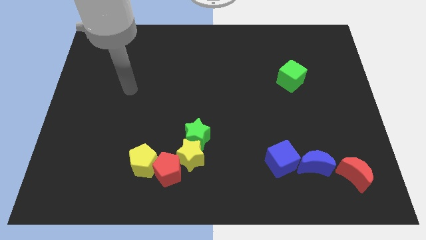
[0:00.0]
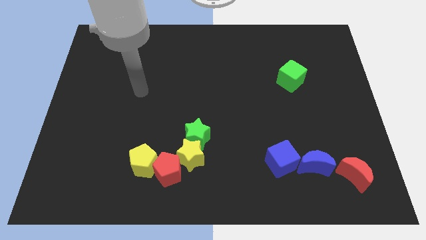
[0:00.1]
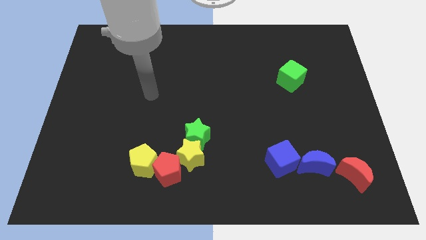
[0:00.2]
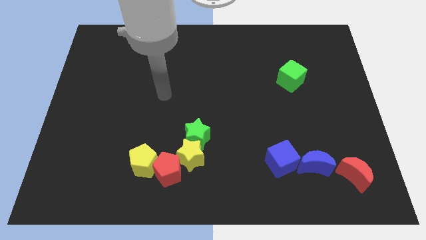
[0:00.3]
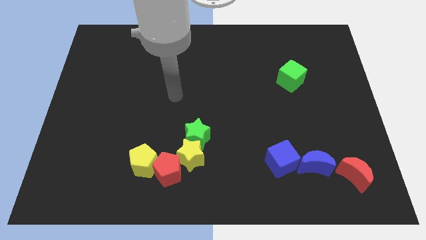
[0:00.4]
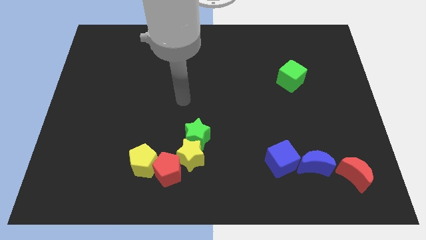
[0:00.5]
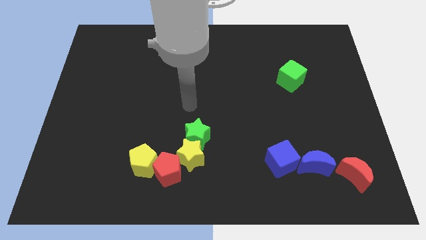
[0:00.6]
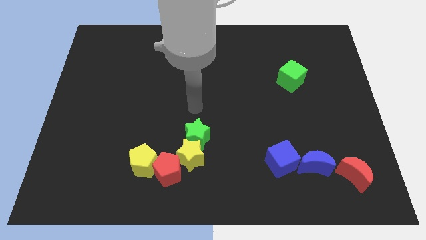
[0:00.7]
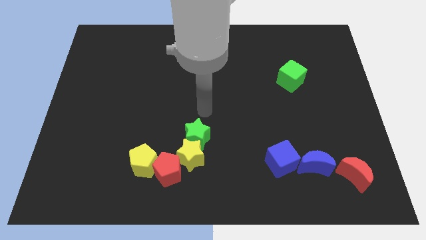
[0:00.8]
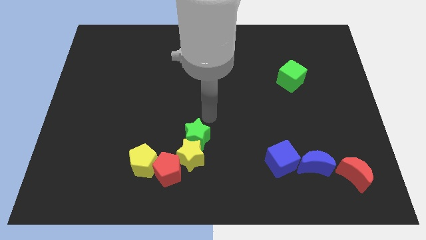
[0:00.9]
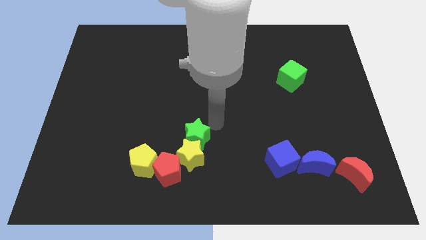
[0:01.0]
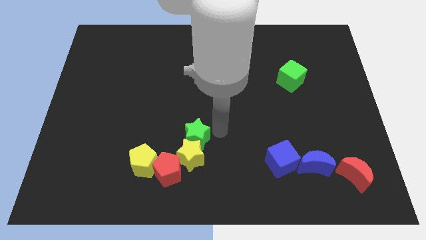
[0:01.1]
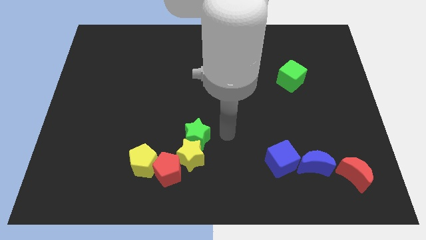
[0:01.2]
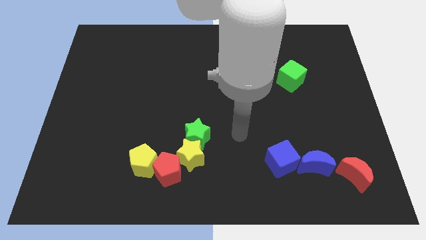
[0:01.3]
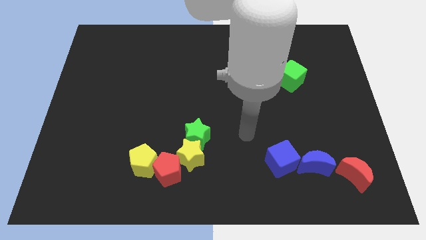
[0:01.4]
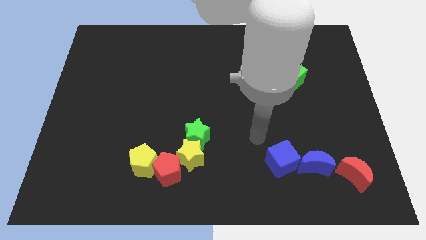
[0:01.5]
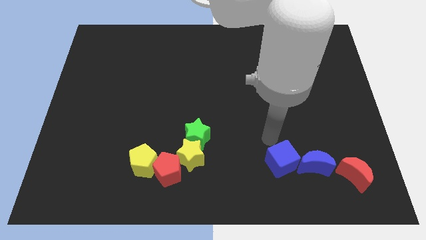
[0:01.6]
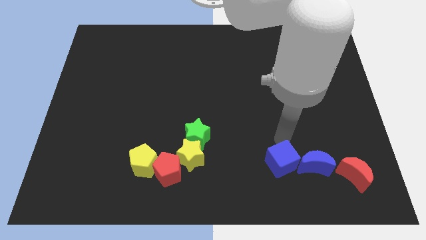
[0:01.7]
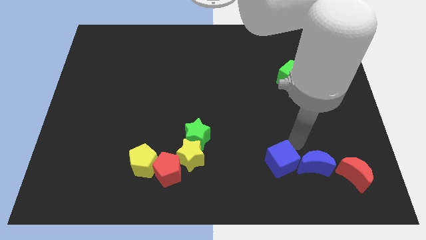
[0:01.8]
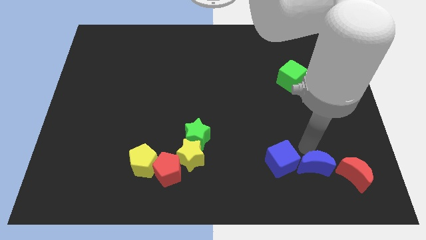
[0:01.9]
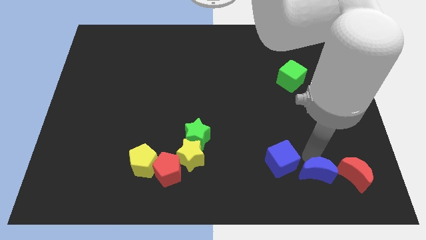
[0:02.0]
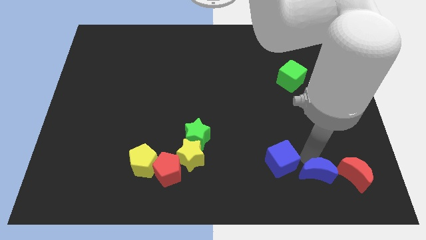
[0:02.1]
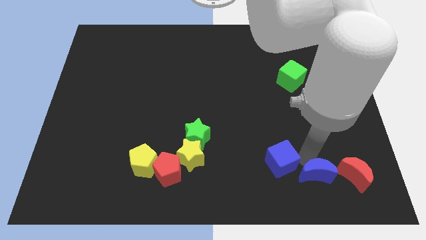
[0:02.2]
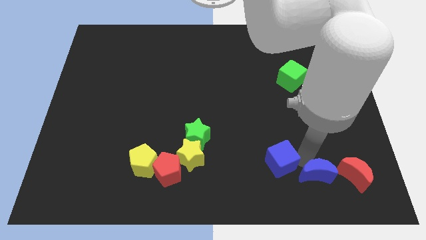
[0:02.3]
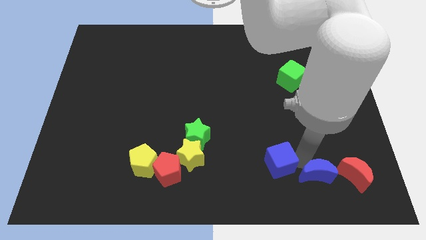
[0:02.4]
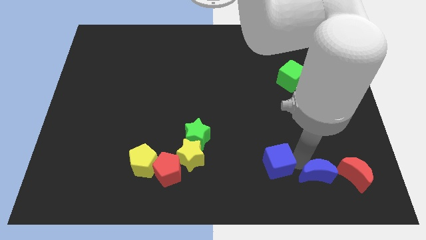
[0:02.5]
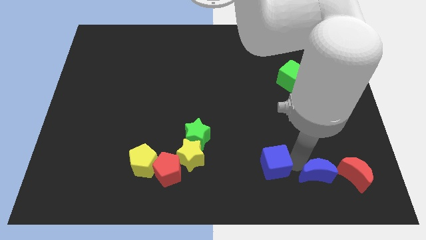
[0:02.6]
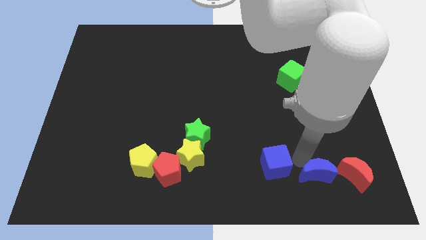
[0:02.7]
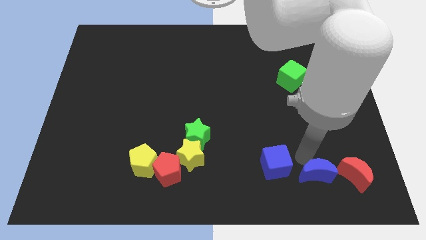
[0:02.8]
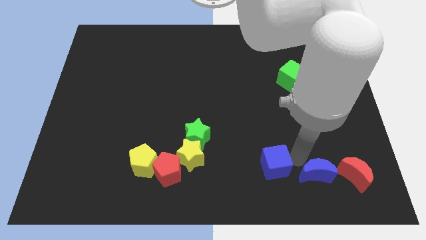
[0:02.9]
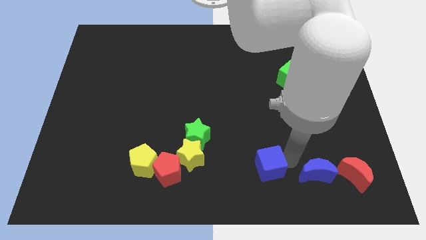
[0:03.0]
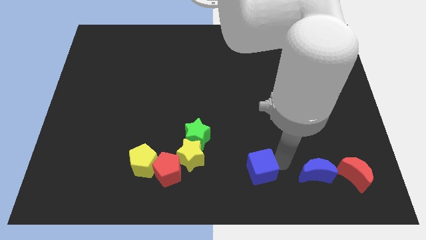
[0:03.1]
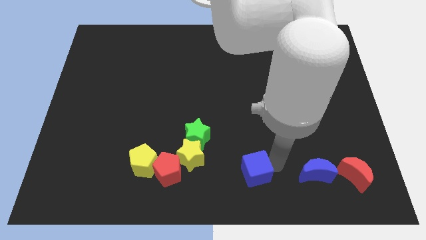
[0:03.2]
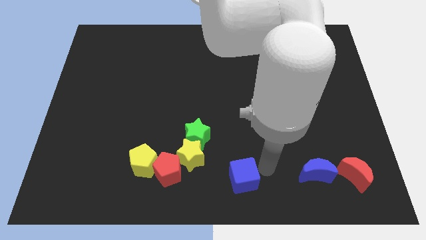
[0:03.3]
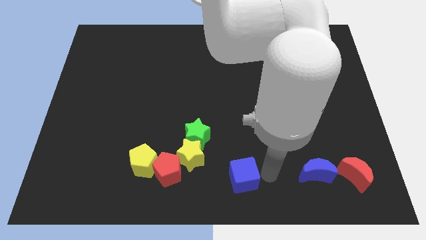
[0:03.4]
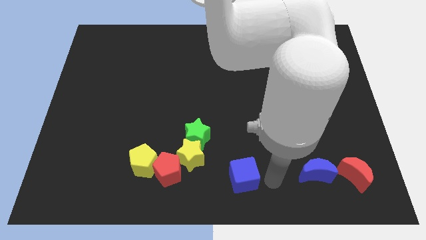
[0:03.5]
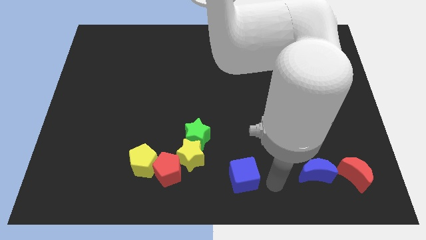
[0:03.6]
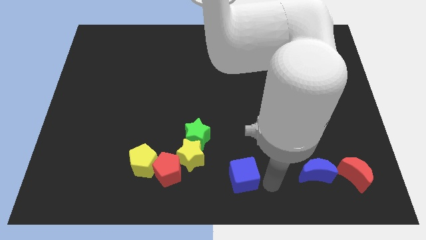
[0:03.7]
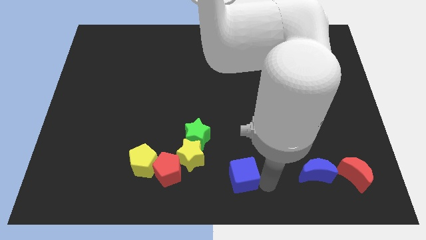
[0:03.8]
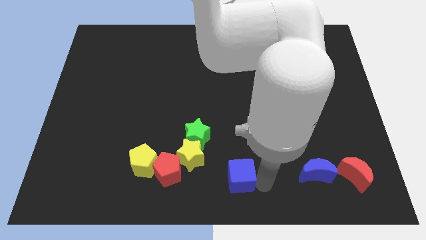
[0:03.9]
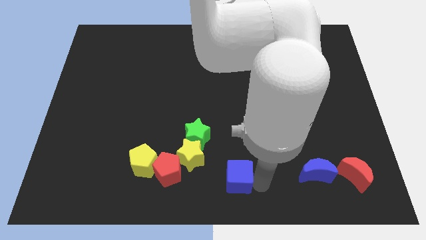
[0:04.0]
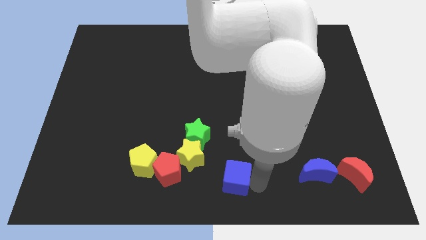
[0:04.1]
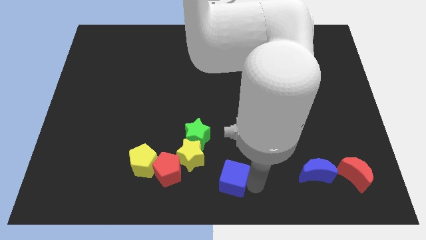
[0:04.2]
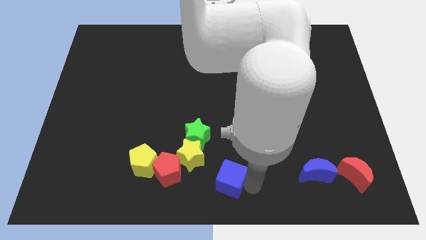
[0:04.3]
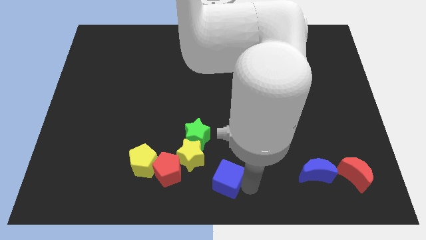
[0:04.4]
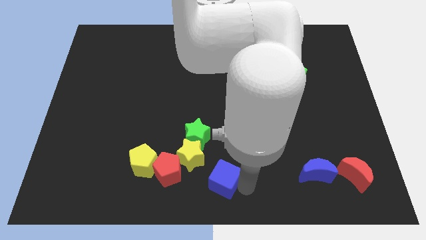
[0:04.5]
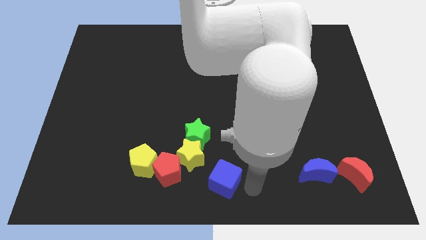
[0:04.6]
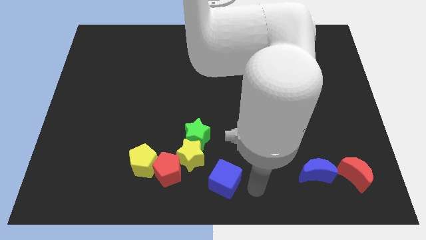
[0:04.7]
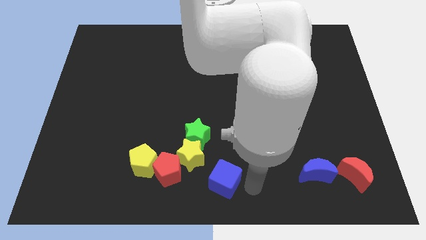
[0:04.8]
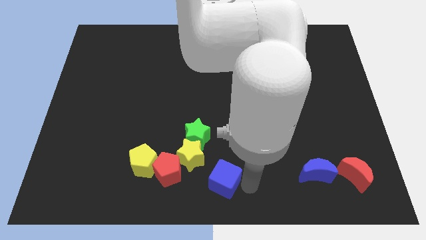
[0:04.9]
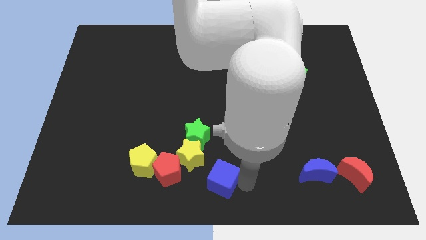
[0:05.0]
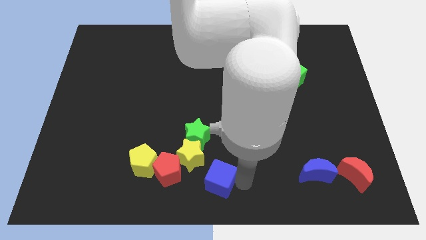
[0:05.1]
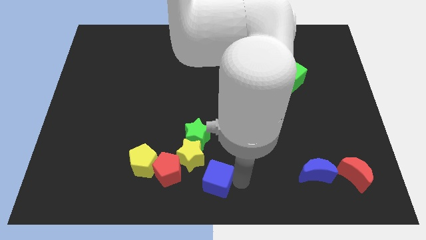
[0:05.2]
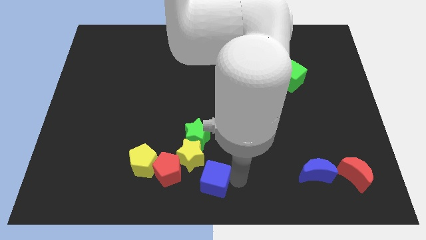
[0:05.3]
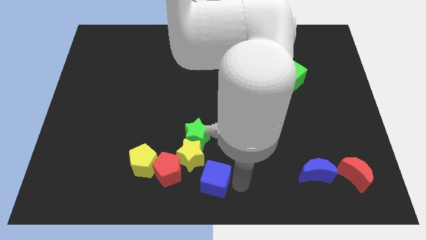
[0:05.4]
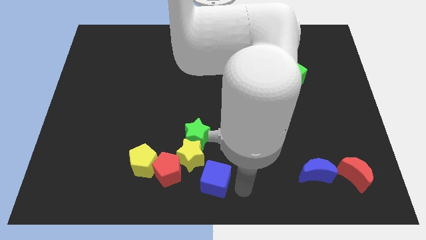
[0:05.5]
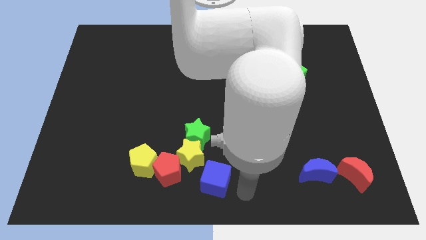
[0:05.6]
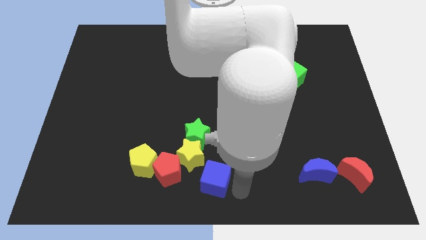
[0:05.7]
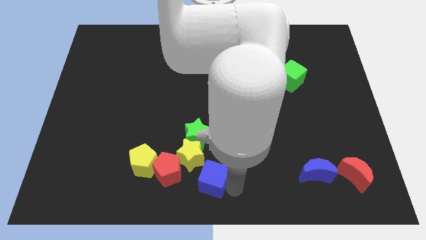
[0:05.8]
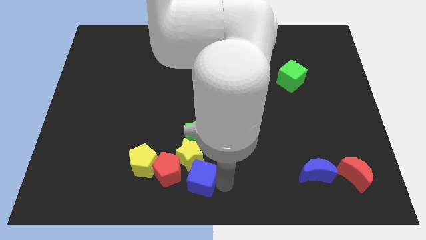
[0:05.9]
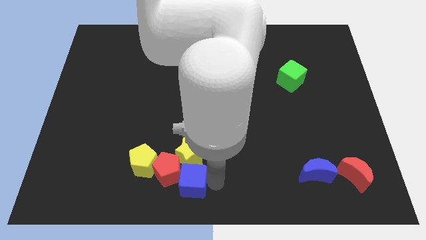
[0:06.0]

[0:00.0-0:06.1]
put the blue cube close to the red pentagon

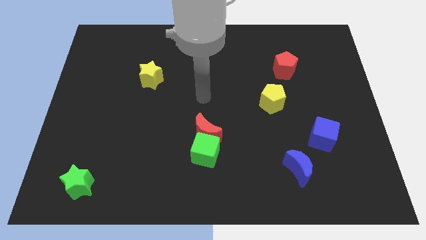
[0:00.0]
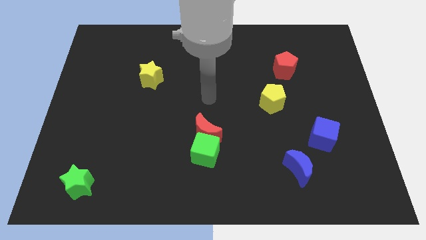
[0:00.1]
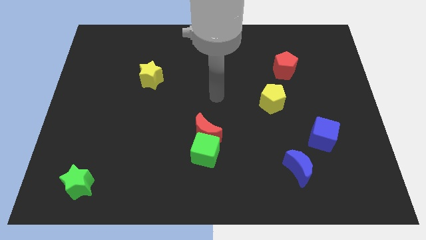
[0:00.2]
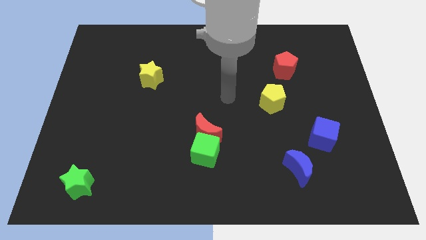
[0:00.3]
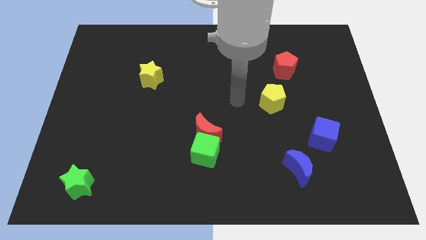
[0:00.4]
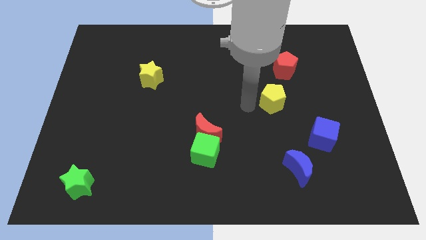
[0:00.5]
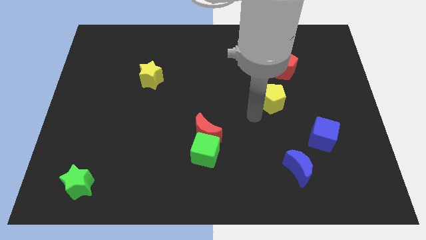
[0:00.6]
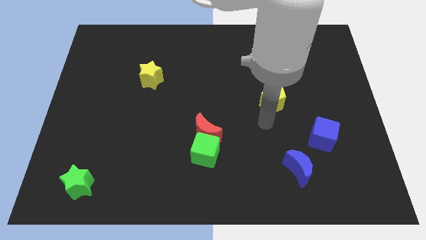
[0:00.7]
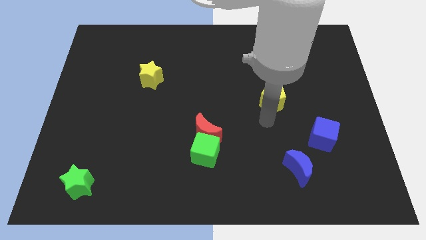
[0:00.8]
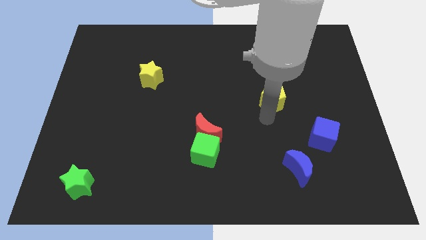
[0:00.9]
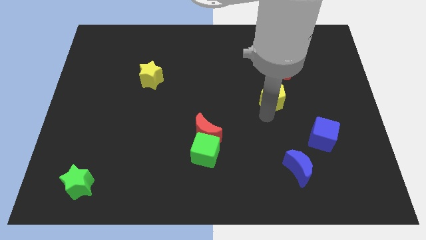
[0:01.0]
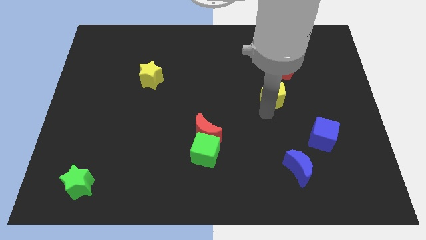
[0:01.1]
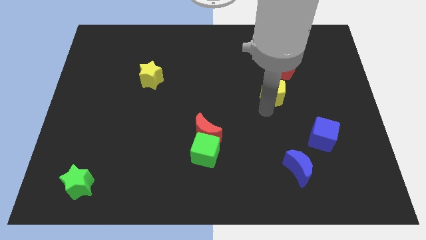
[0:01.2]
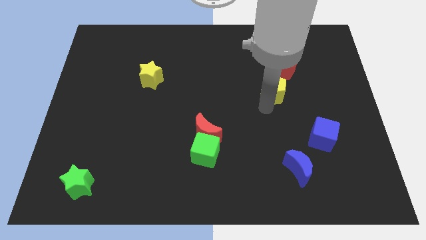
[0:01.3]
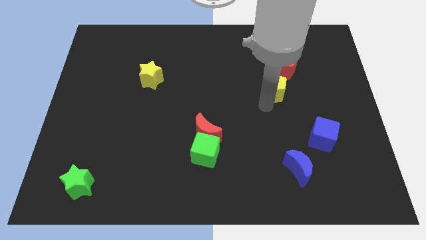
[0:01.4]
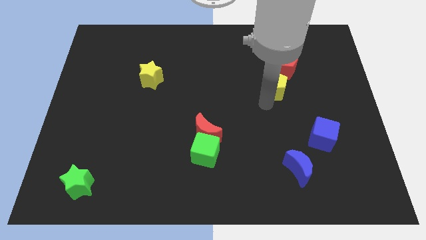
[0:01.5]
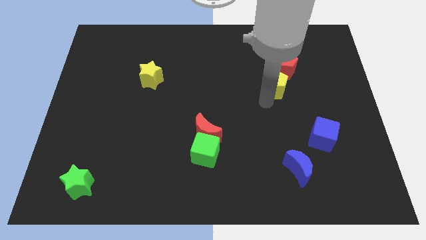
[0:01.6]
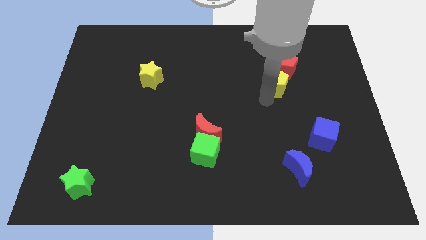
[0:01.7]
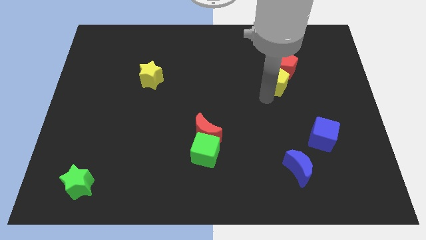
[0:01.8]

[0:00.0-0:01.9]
push the yellow pentagon next to the red pentagon
